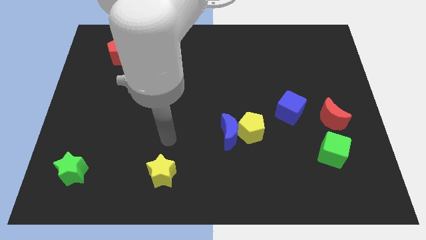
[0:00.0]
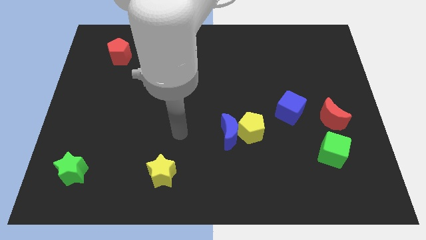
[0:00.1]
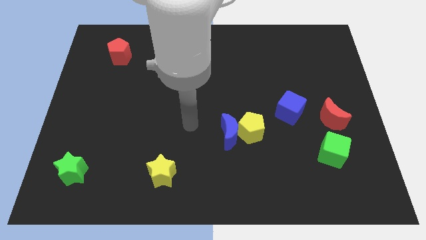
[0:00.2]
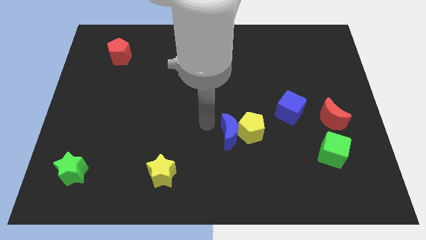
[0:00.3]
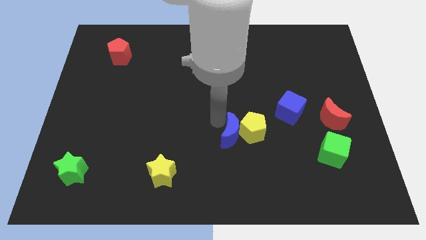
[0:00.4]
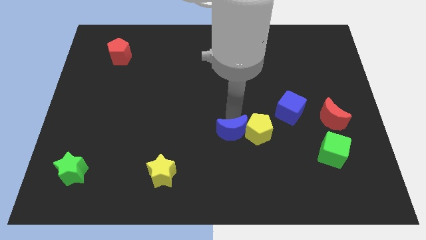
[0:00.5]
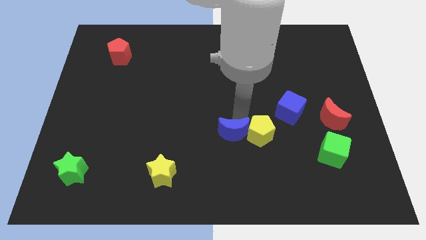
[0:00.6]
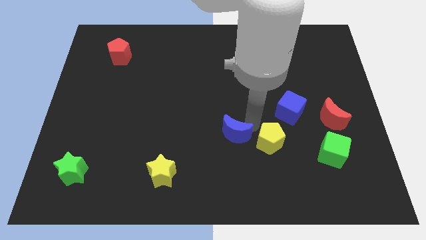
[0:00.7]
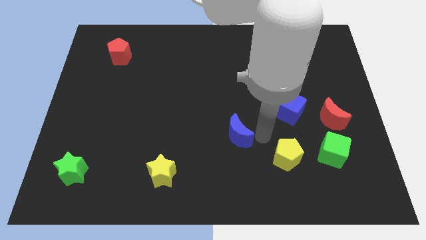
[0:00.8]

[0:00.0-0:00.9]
pull the blue moon apart from the yellow pentagon

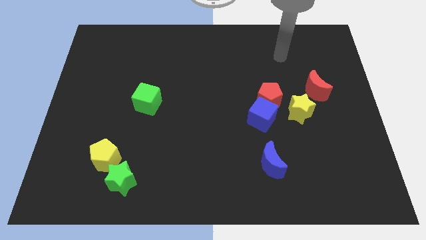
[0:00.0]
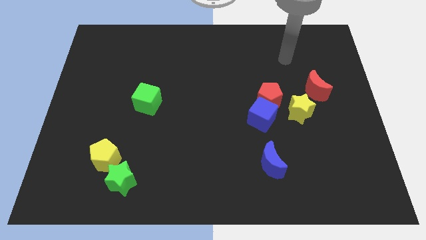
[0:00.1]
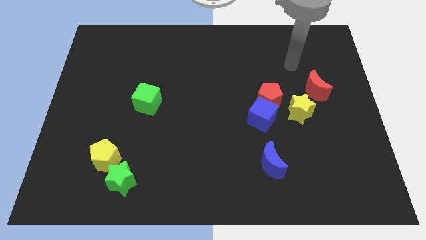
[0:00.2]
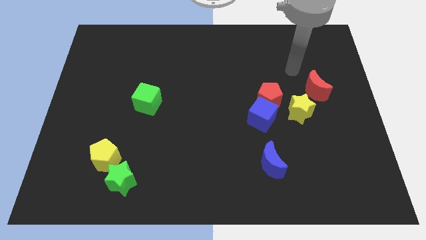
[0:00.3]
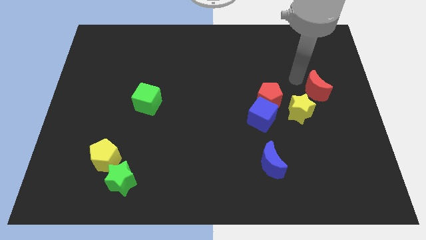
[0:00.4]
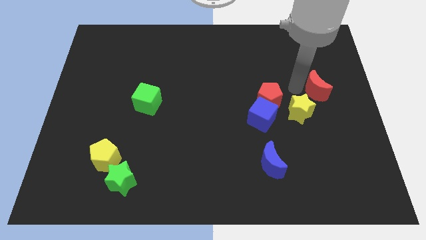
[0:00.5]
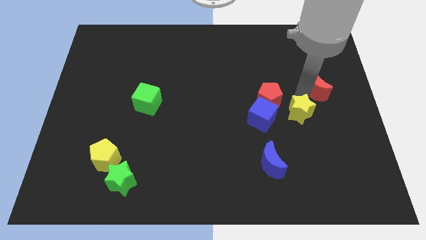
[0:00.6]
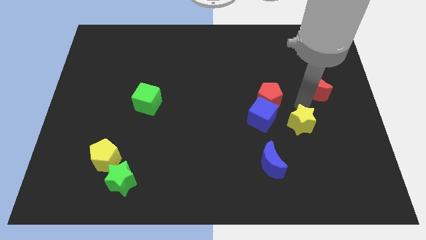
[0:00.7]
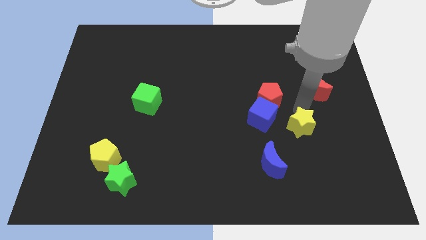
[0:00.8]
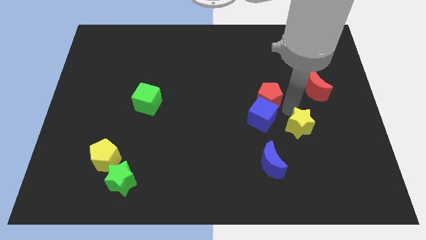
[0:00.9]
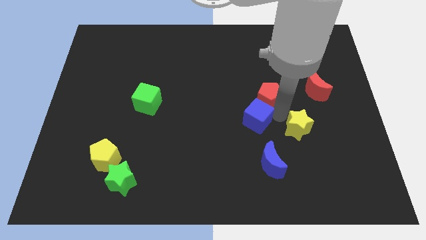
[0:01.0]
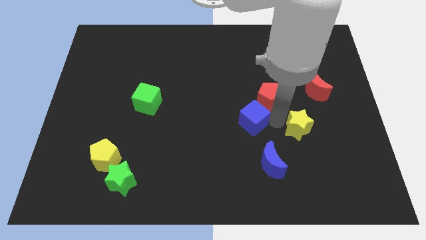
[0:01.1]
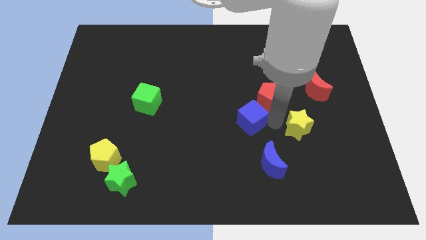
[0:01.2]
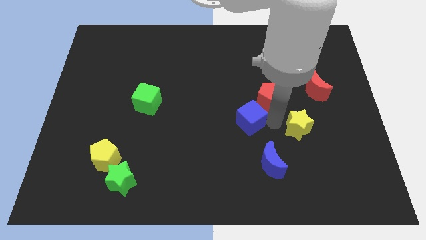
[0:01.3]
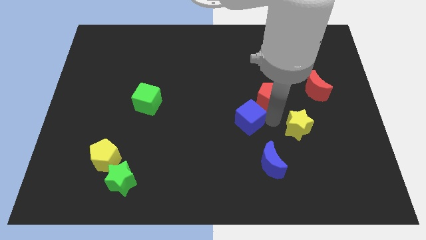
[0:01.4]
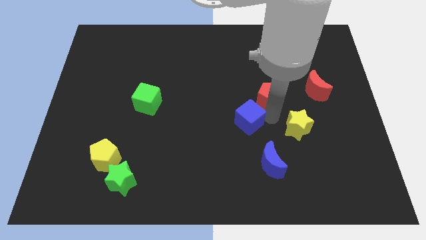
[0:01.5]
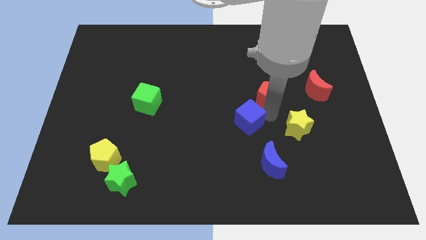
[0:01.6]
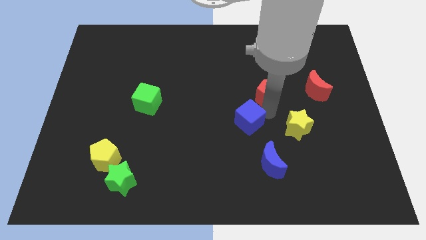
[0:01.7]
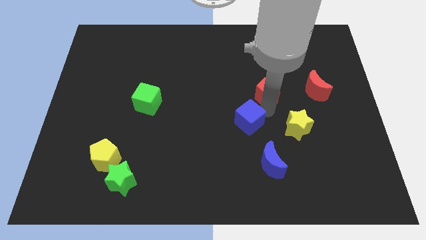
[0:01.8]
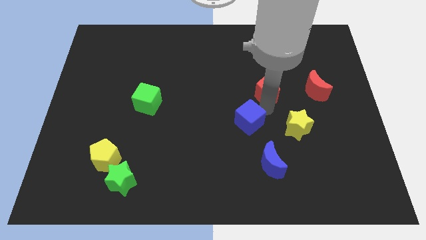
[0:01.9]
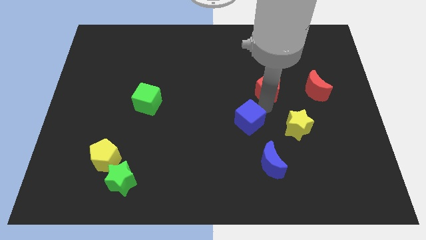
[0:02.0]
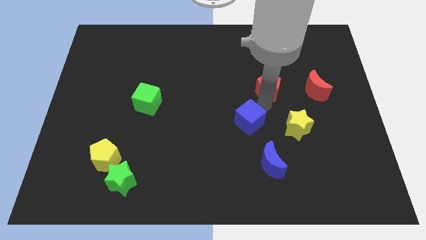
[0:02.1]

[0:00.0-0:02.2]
pull the red pentagon apart from the blue cube and yellow star

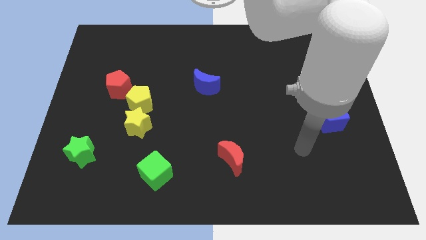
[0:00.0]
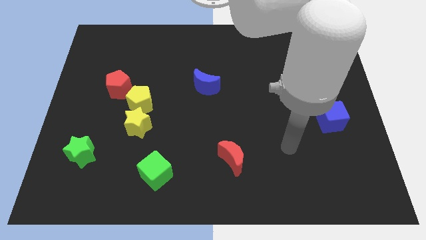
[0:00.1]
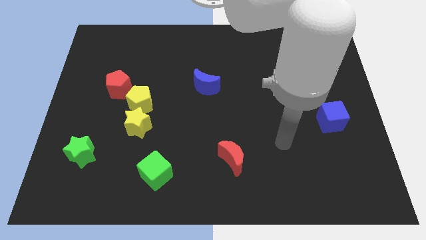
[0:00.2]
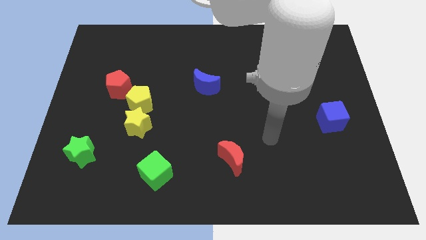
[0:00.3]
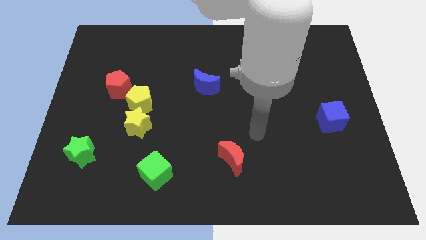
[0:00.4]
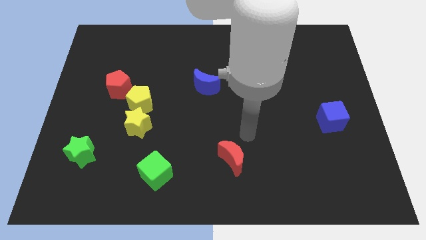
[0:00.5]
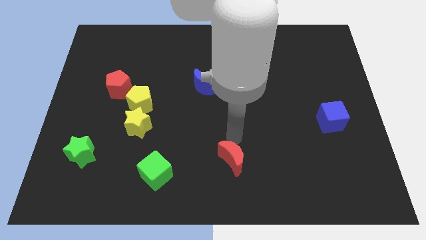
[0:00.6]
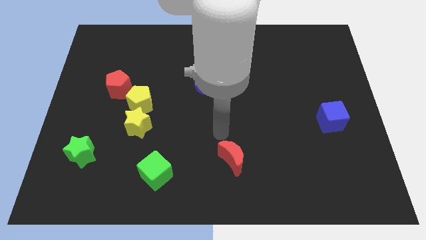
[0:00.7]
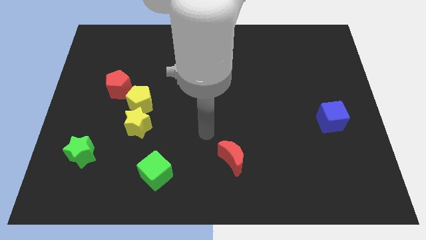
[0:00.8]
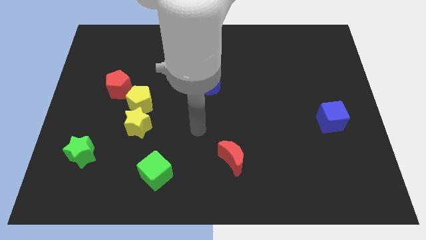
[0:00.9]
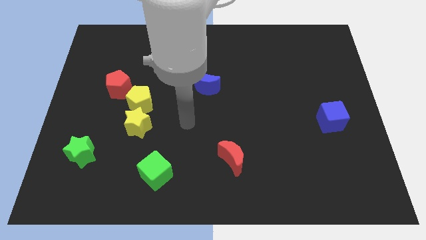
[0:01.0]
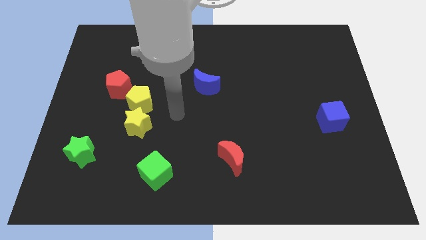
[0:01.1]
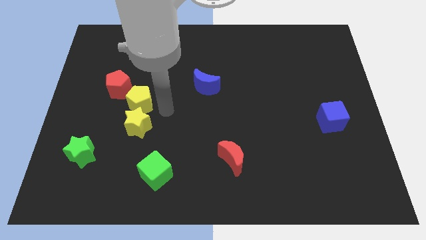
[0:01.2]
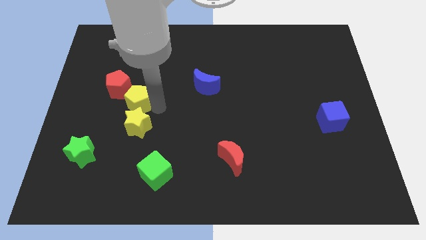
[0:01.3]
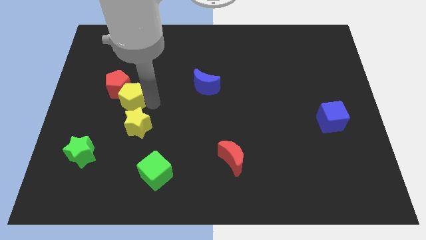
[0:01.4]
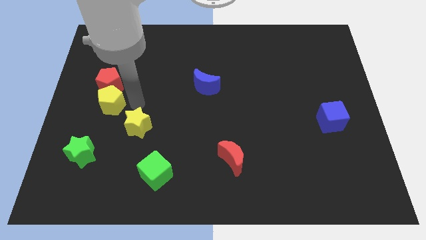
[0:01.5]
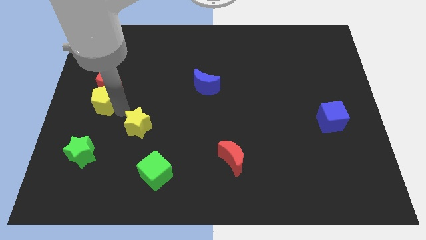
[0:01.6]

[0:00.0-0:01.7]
move the yellow star away from the yellow pentagon

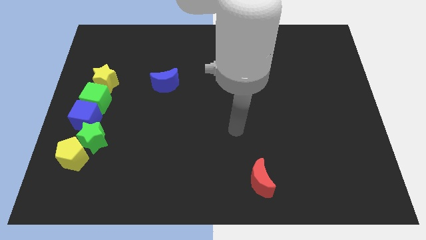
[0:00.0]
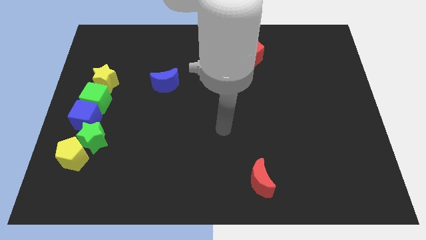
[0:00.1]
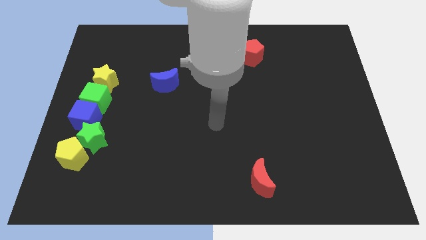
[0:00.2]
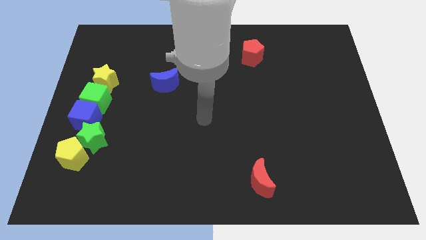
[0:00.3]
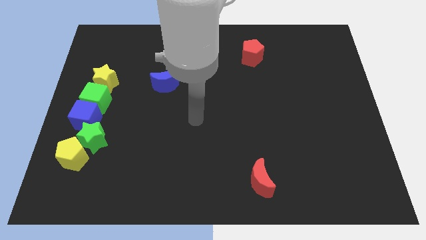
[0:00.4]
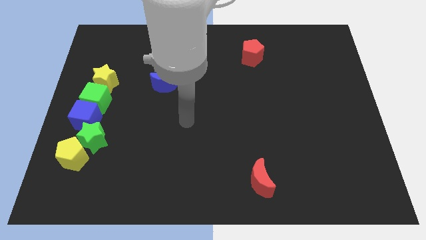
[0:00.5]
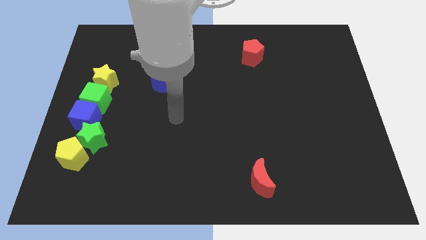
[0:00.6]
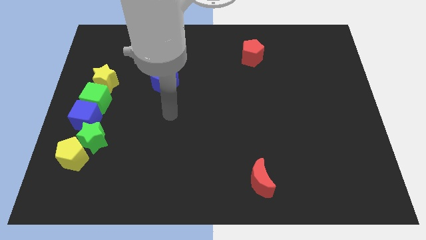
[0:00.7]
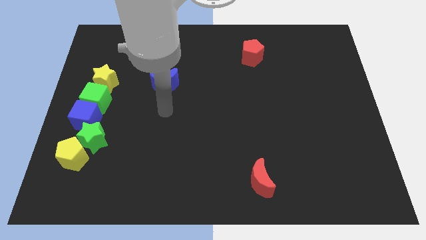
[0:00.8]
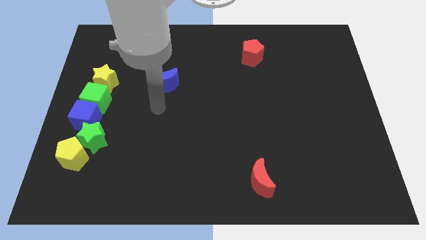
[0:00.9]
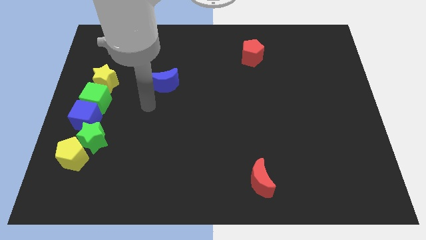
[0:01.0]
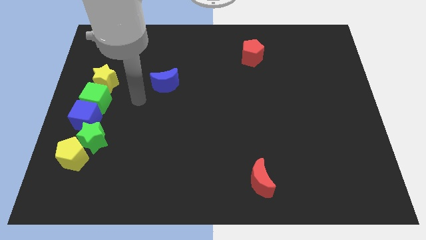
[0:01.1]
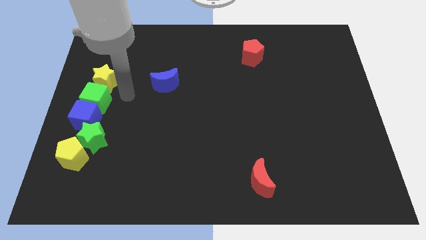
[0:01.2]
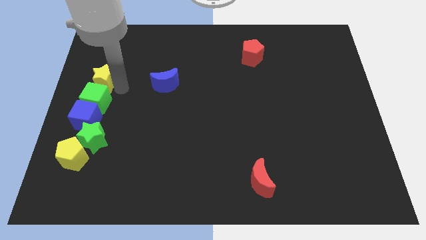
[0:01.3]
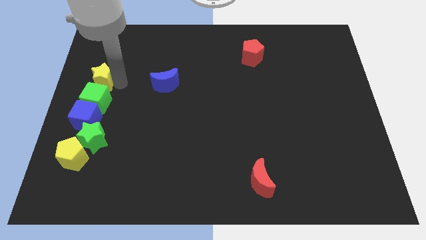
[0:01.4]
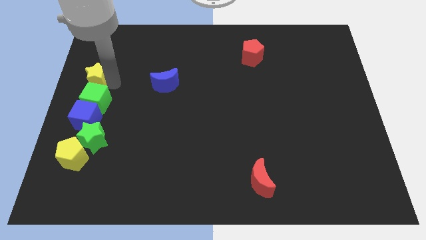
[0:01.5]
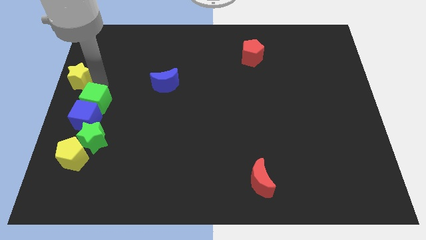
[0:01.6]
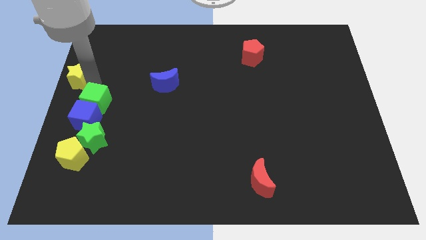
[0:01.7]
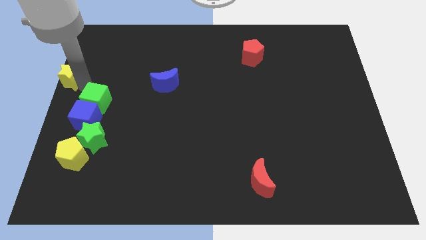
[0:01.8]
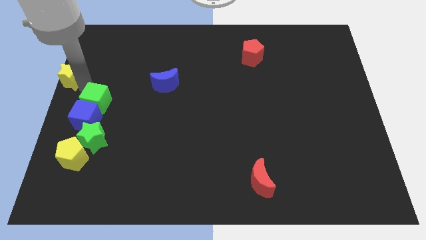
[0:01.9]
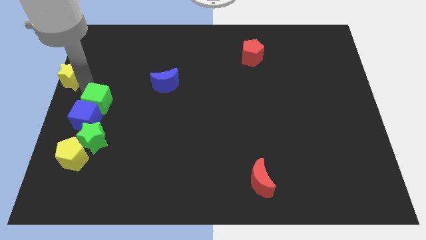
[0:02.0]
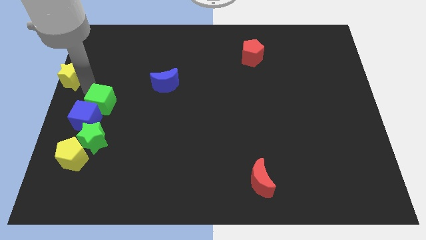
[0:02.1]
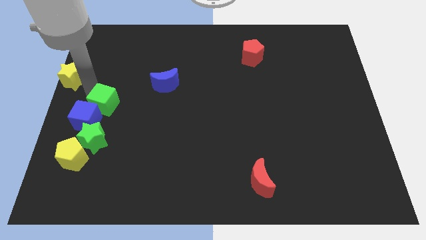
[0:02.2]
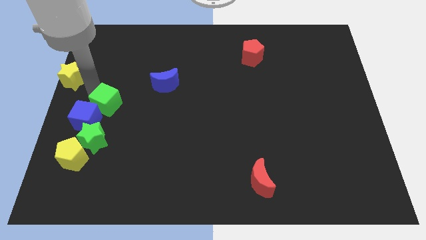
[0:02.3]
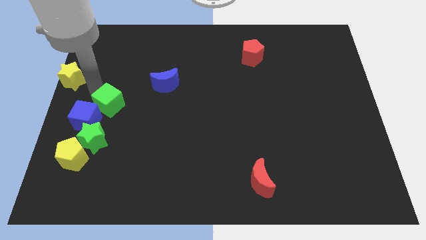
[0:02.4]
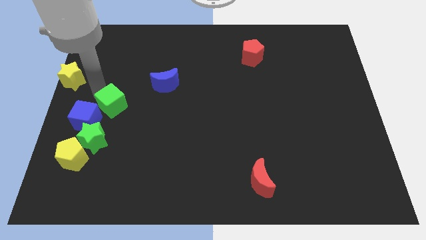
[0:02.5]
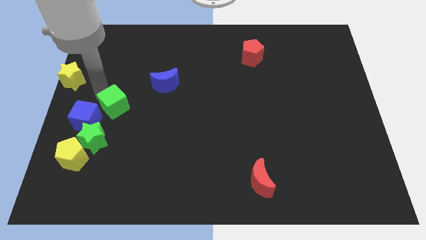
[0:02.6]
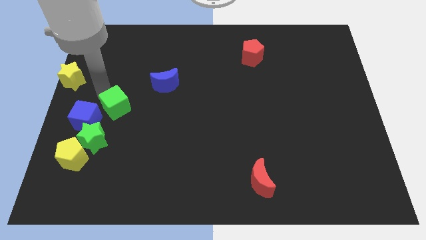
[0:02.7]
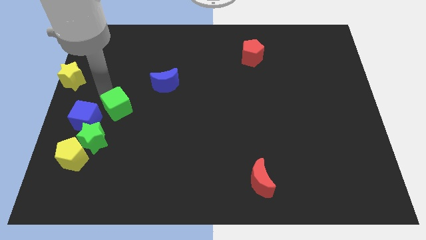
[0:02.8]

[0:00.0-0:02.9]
move the green cube away from the blue cube and yellow star

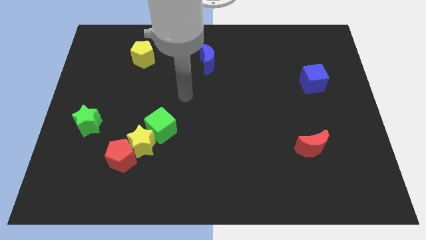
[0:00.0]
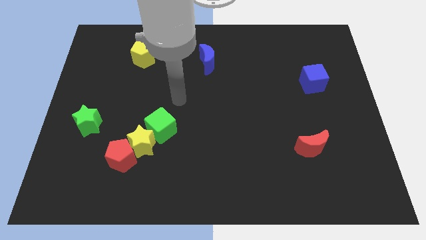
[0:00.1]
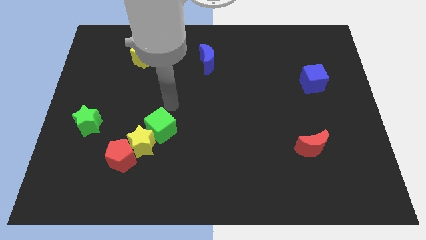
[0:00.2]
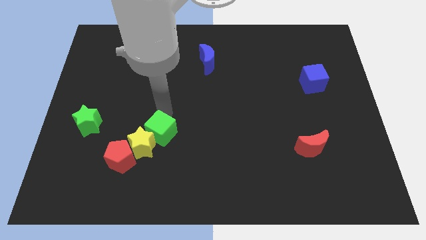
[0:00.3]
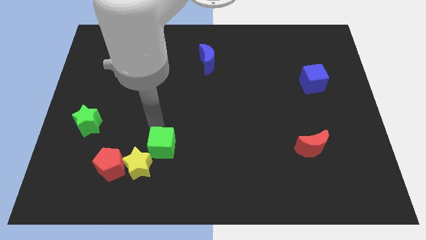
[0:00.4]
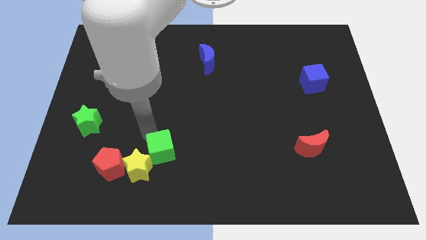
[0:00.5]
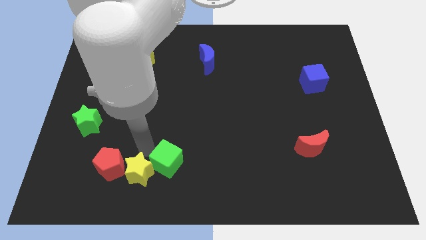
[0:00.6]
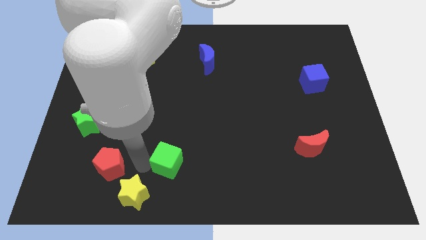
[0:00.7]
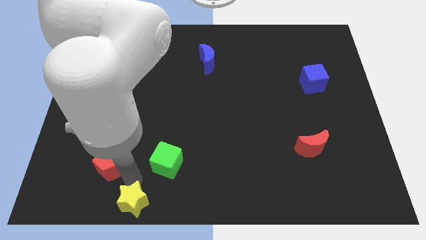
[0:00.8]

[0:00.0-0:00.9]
move the red pentagon away from the yellow star

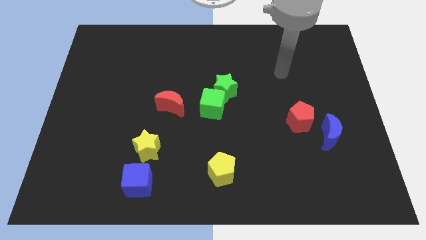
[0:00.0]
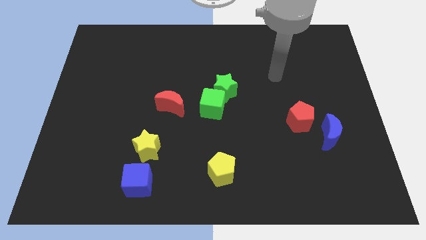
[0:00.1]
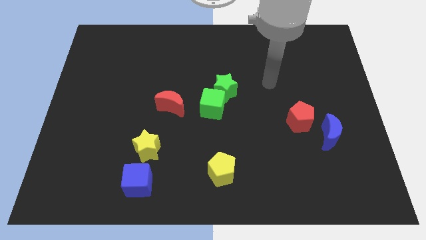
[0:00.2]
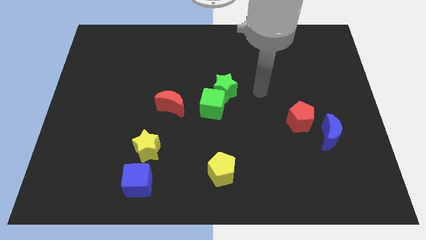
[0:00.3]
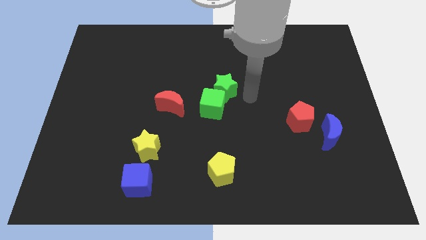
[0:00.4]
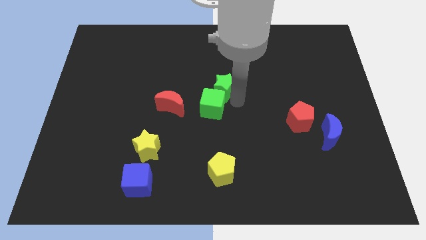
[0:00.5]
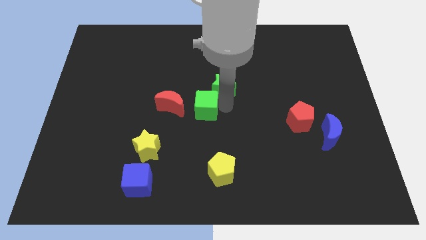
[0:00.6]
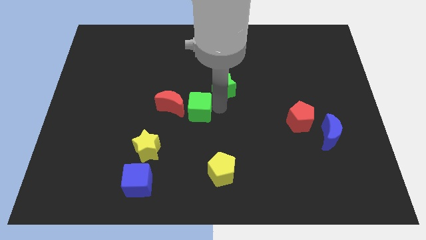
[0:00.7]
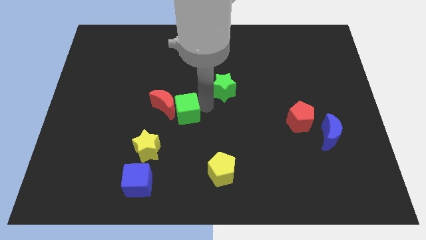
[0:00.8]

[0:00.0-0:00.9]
move the green star away from the green cube
